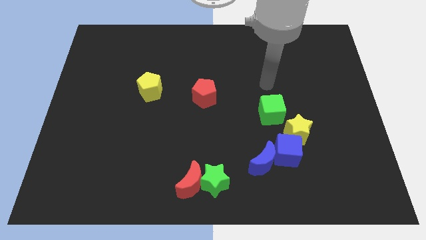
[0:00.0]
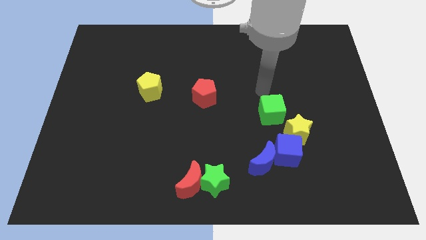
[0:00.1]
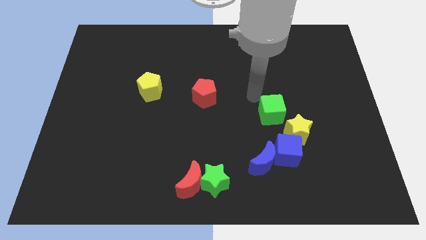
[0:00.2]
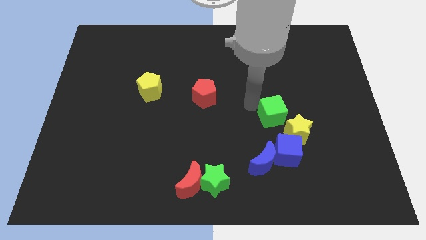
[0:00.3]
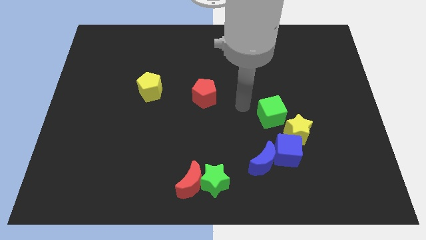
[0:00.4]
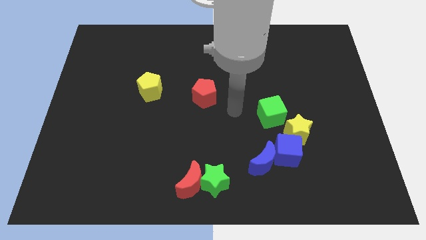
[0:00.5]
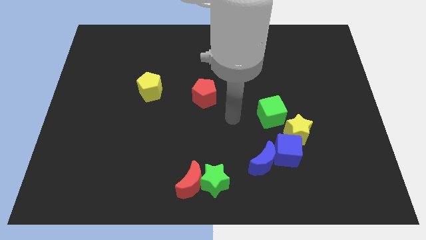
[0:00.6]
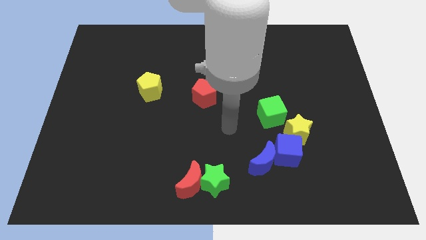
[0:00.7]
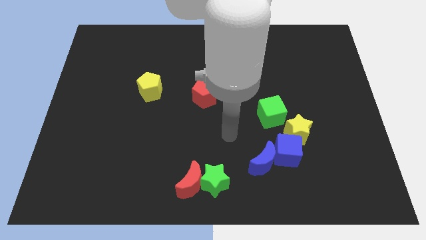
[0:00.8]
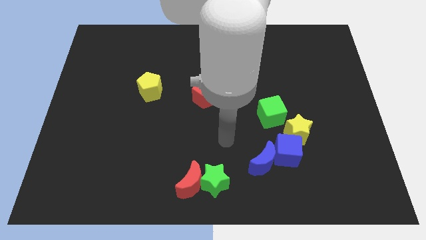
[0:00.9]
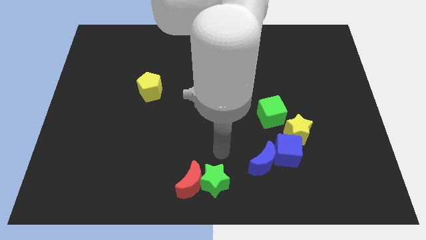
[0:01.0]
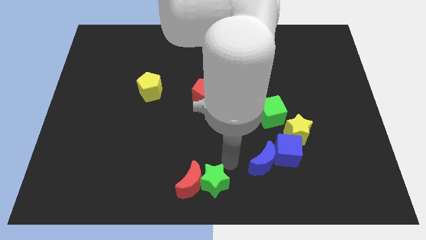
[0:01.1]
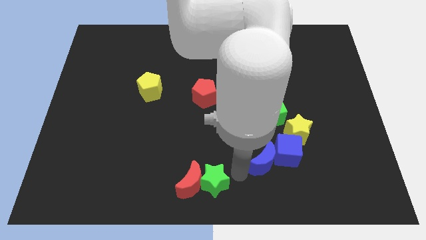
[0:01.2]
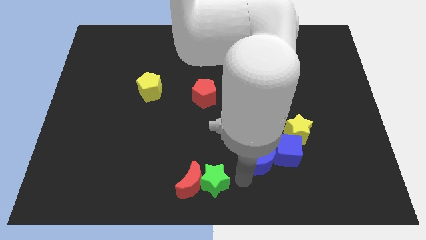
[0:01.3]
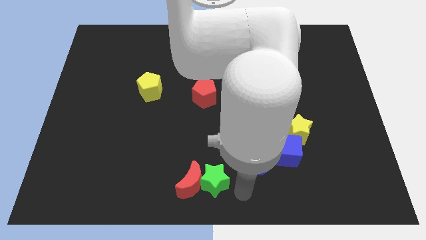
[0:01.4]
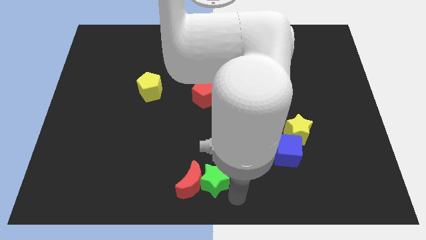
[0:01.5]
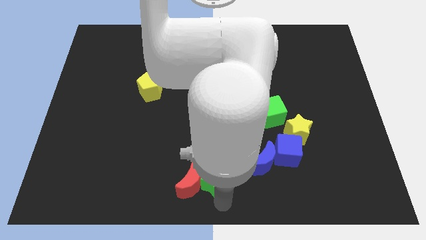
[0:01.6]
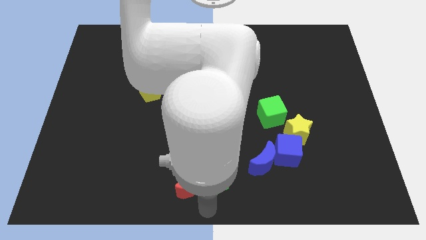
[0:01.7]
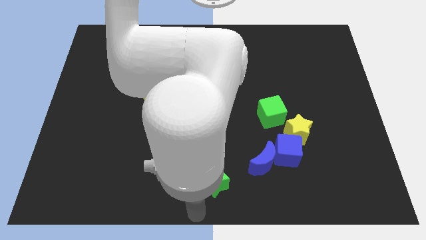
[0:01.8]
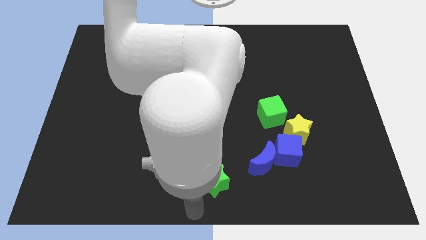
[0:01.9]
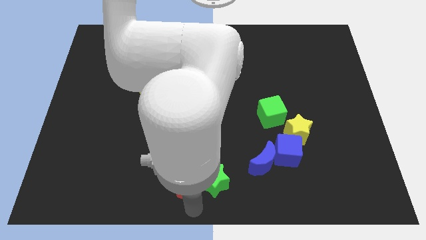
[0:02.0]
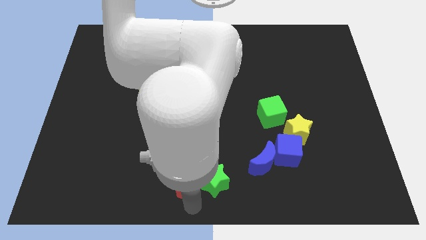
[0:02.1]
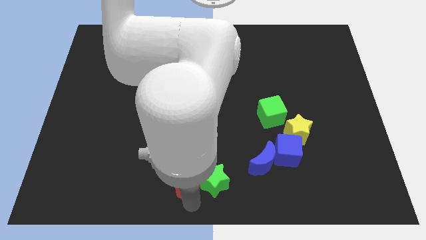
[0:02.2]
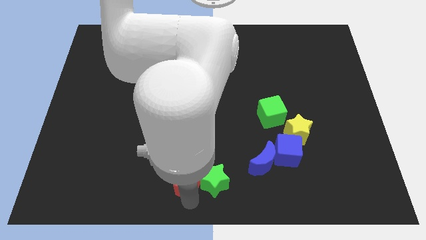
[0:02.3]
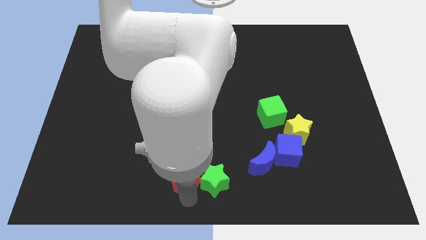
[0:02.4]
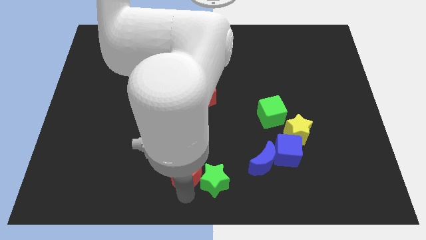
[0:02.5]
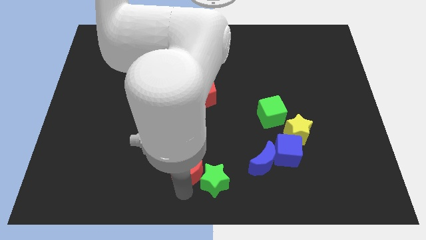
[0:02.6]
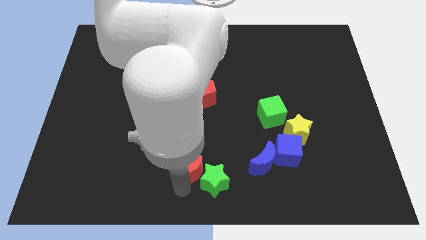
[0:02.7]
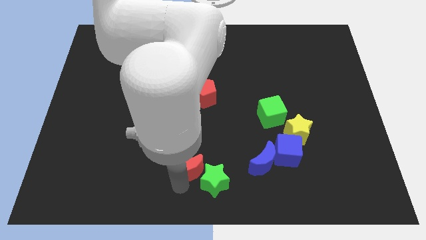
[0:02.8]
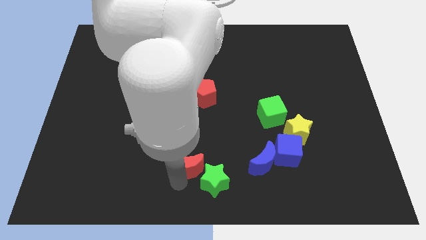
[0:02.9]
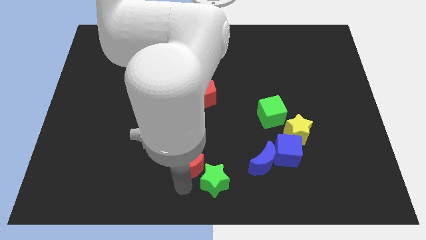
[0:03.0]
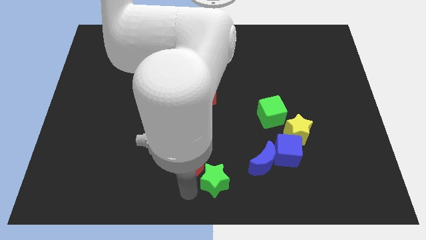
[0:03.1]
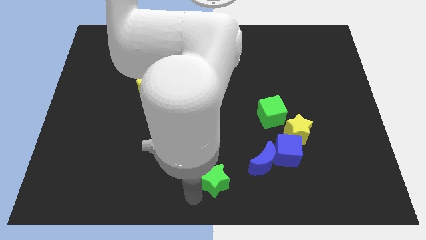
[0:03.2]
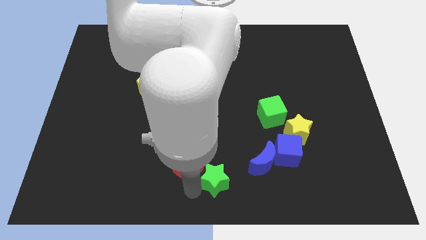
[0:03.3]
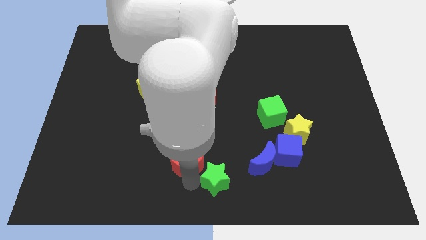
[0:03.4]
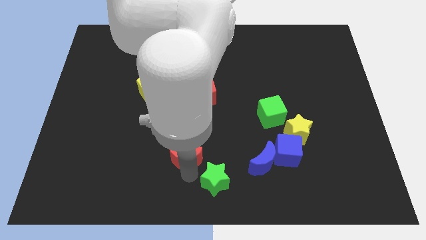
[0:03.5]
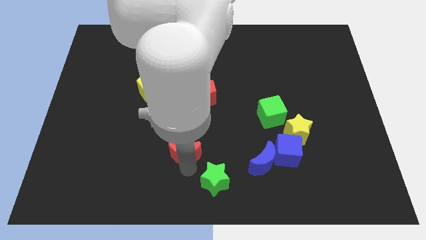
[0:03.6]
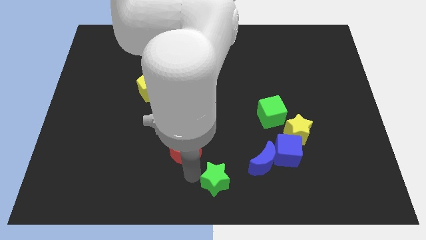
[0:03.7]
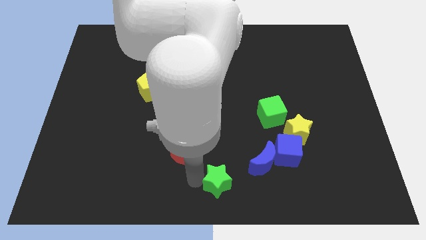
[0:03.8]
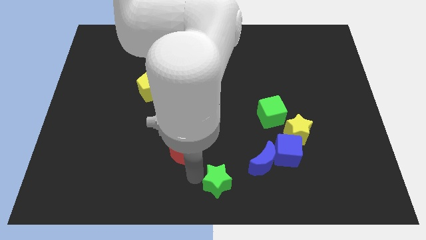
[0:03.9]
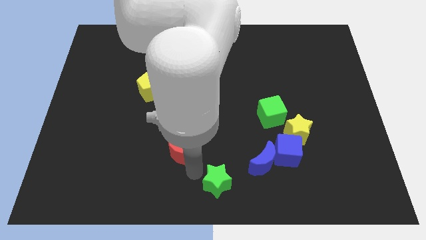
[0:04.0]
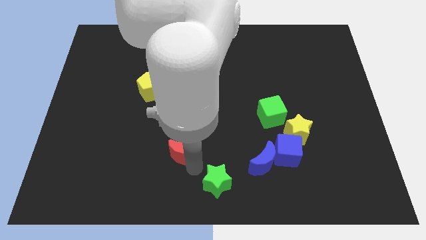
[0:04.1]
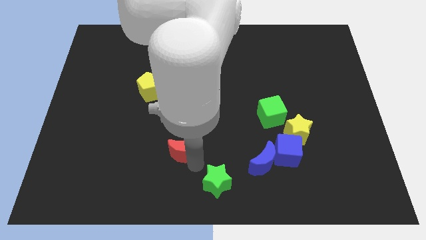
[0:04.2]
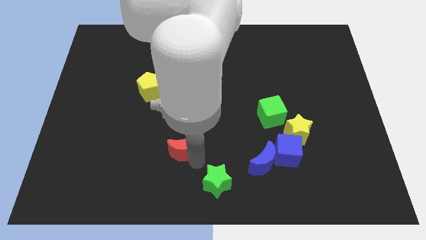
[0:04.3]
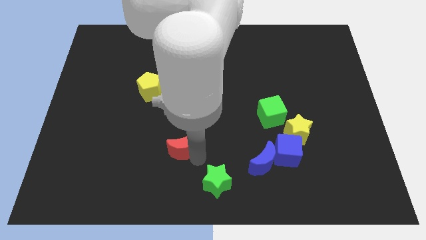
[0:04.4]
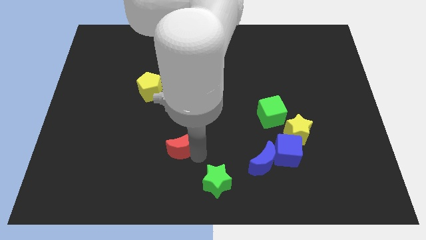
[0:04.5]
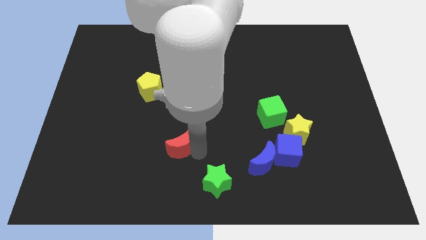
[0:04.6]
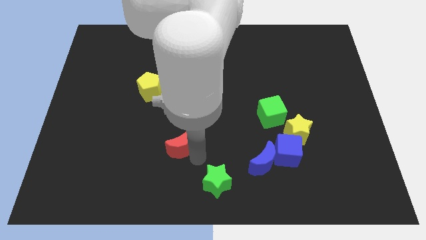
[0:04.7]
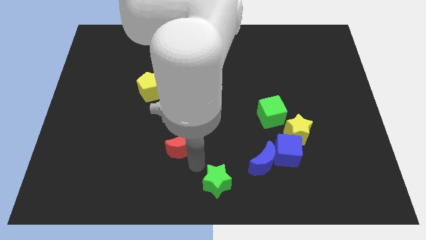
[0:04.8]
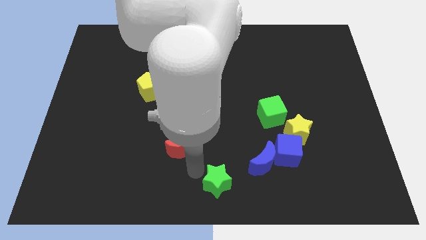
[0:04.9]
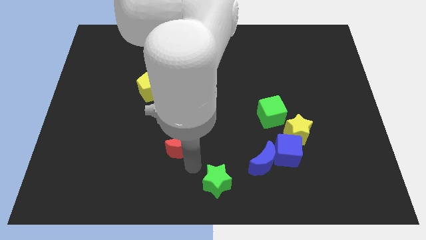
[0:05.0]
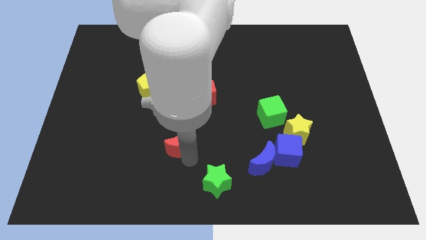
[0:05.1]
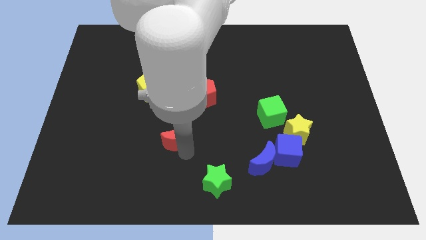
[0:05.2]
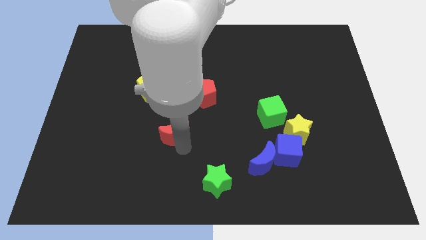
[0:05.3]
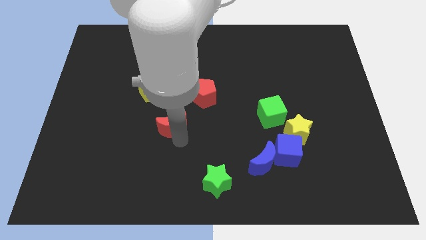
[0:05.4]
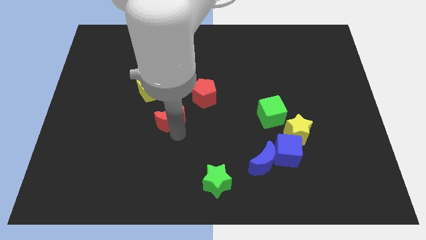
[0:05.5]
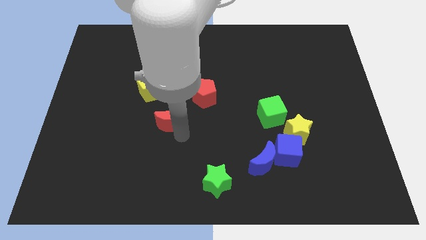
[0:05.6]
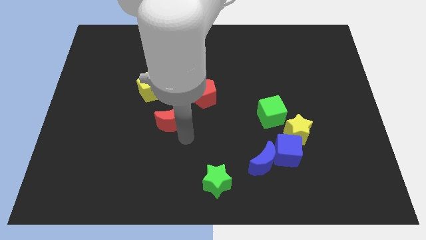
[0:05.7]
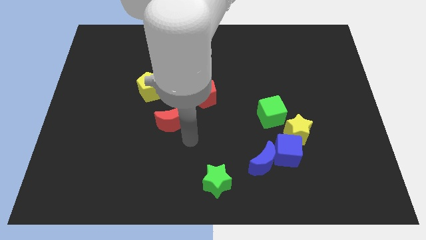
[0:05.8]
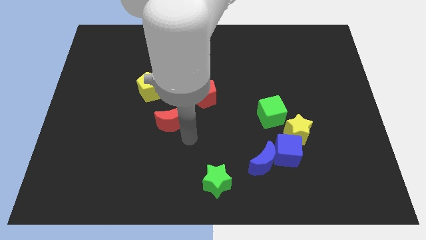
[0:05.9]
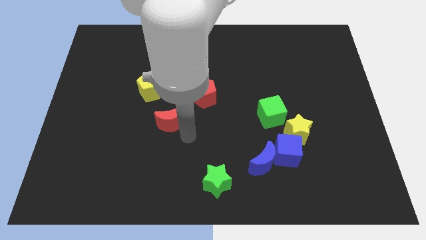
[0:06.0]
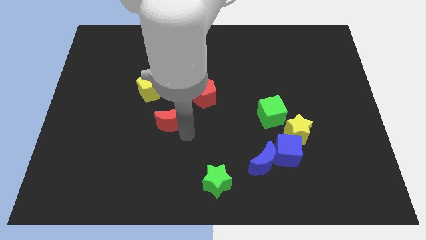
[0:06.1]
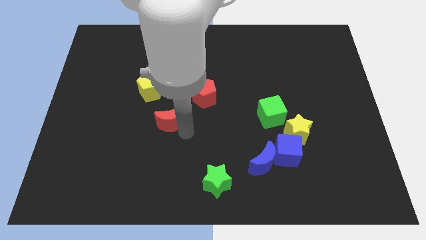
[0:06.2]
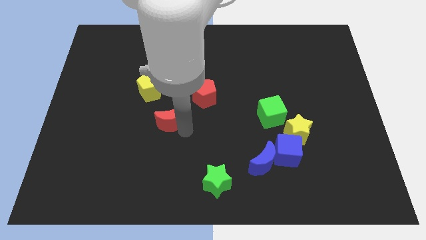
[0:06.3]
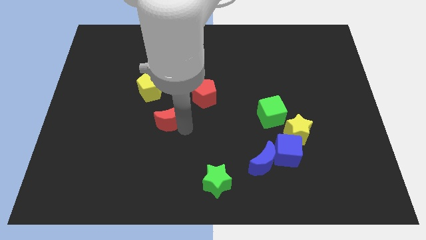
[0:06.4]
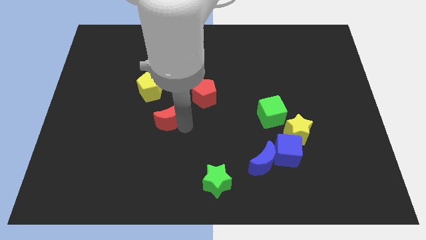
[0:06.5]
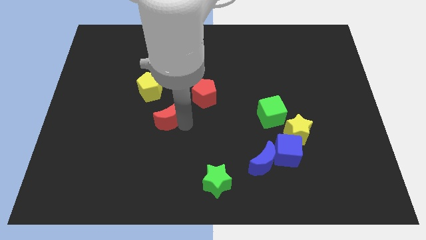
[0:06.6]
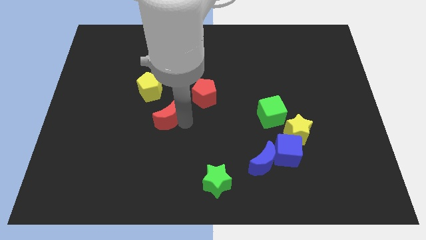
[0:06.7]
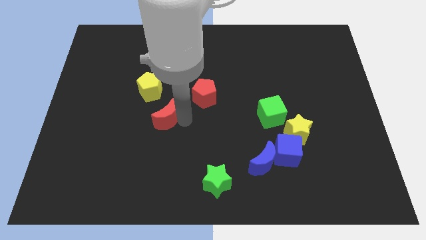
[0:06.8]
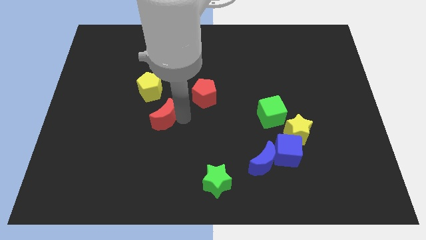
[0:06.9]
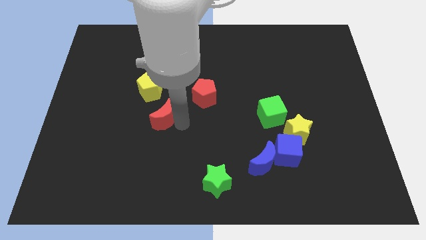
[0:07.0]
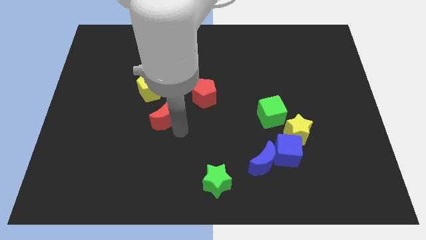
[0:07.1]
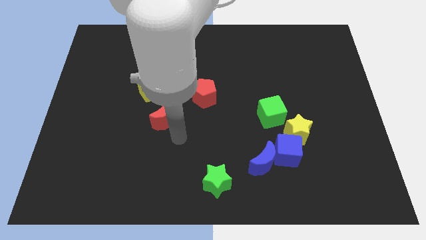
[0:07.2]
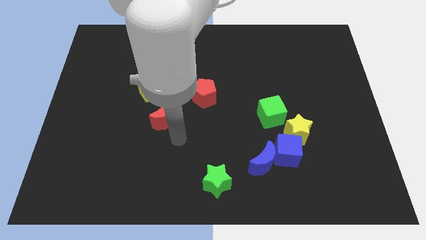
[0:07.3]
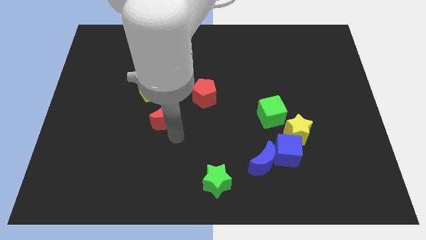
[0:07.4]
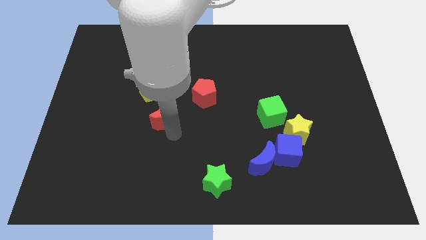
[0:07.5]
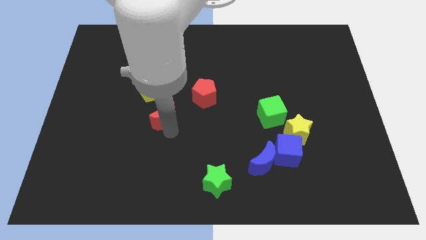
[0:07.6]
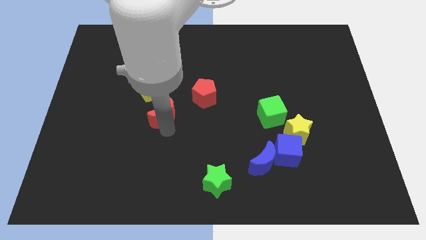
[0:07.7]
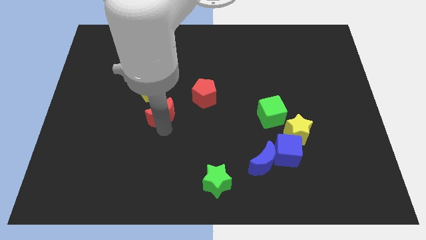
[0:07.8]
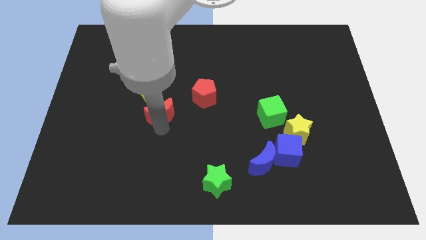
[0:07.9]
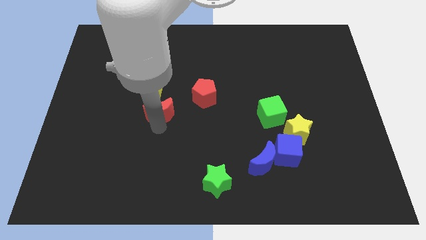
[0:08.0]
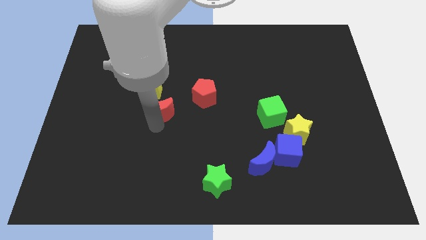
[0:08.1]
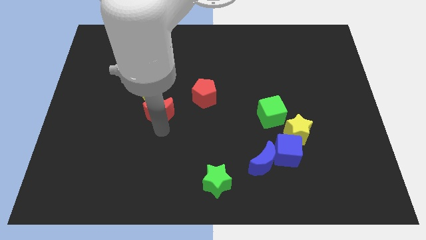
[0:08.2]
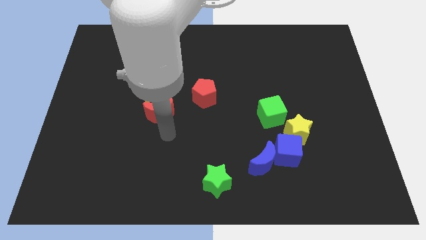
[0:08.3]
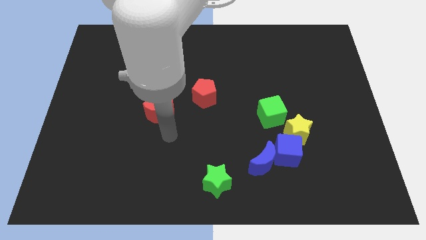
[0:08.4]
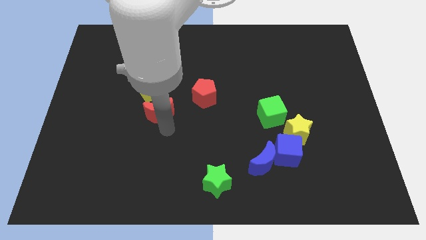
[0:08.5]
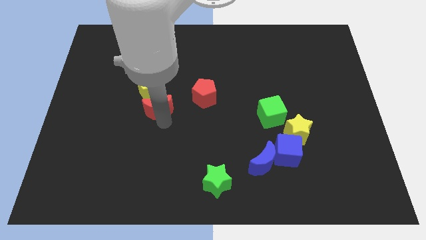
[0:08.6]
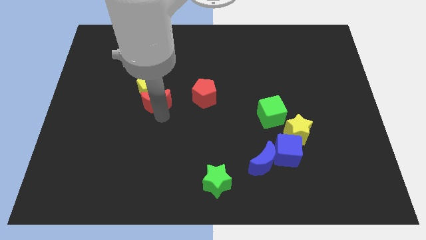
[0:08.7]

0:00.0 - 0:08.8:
put the red moon towards the yellow pentagon
